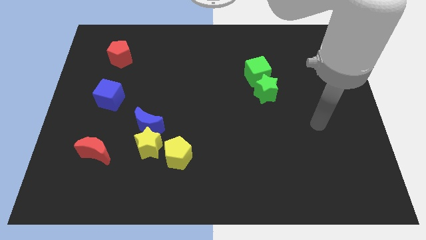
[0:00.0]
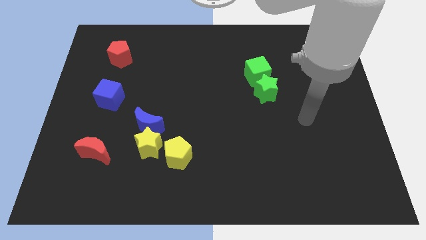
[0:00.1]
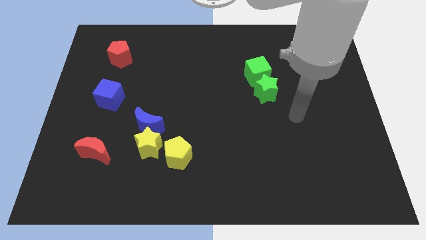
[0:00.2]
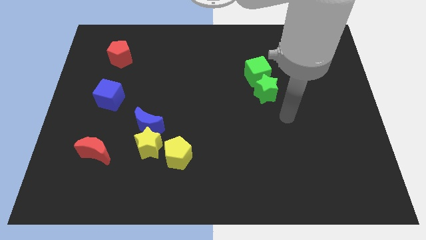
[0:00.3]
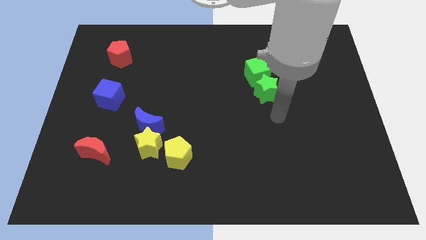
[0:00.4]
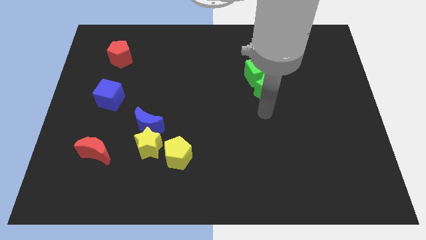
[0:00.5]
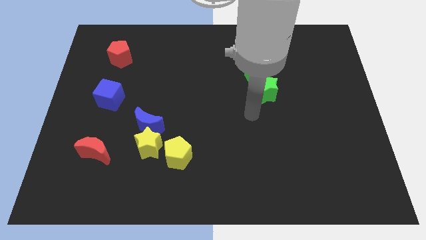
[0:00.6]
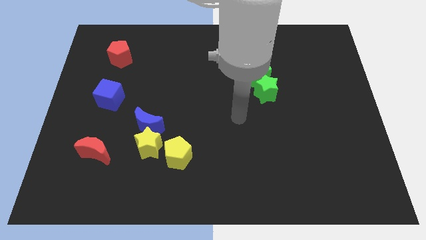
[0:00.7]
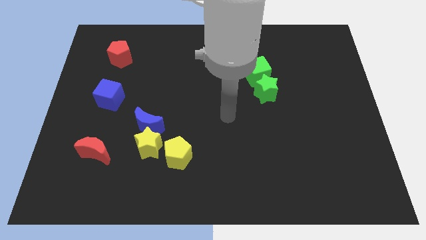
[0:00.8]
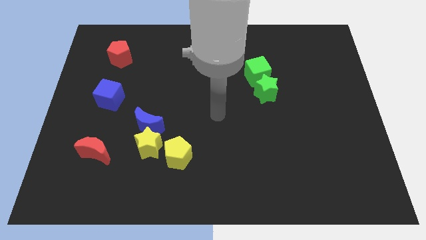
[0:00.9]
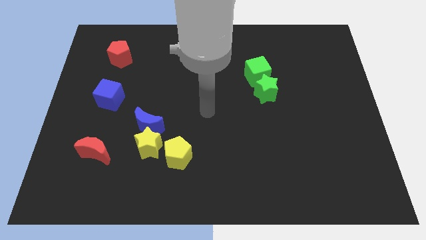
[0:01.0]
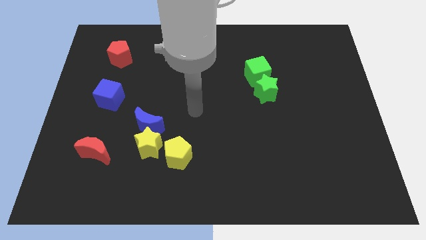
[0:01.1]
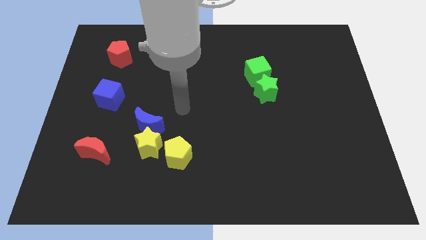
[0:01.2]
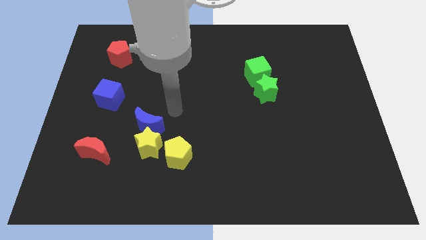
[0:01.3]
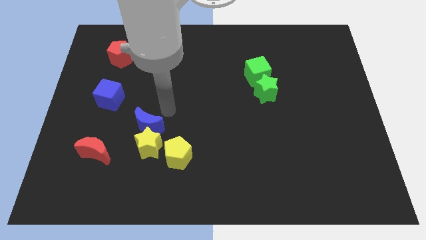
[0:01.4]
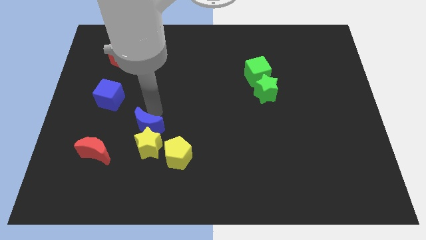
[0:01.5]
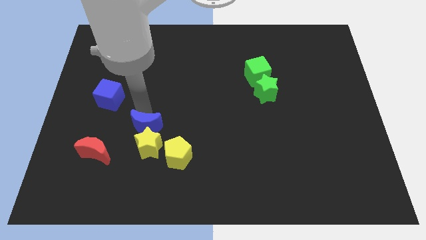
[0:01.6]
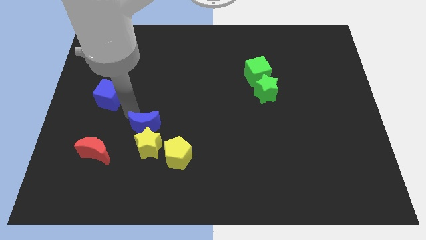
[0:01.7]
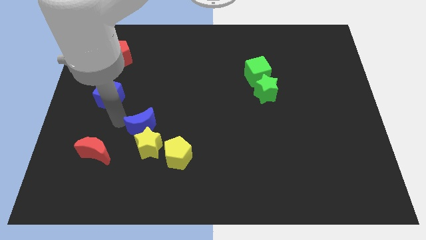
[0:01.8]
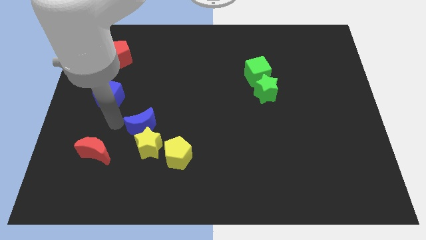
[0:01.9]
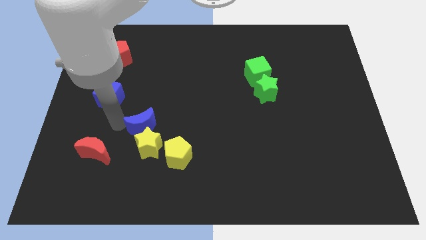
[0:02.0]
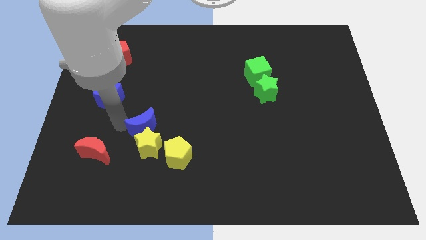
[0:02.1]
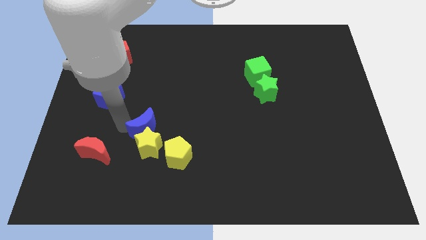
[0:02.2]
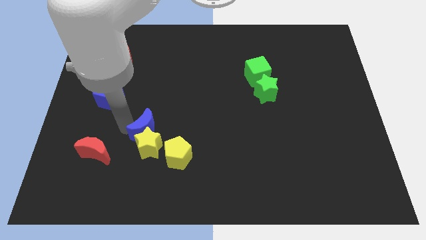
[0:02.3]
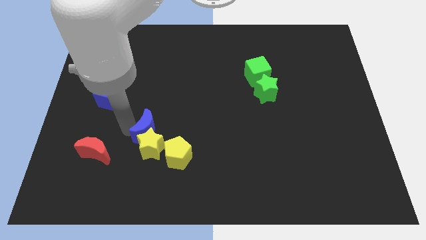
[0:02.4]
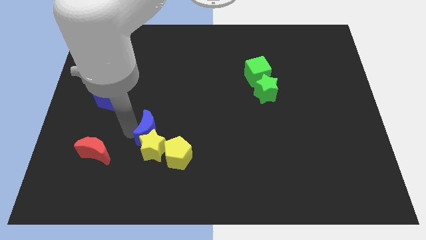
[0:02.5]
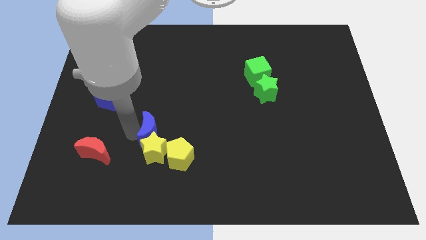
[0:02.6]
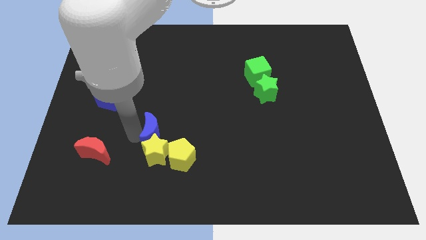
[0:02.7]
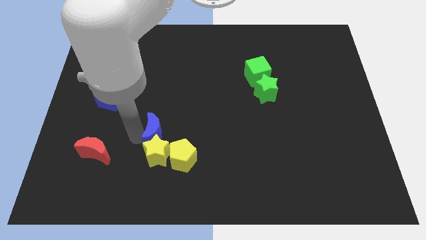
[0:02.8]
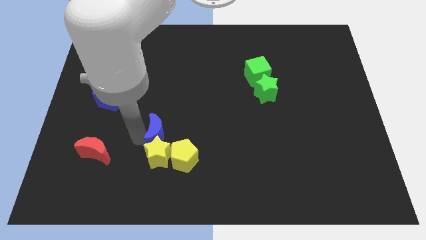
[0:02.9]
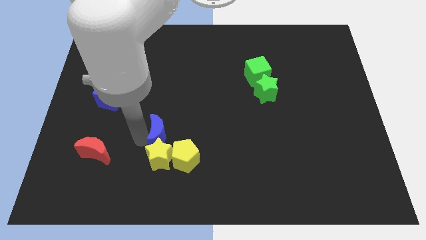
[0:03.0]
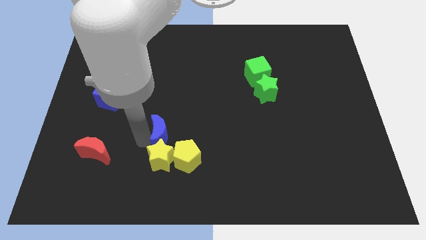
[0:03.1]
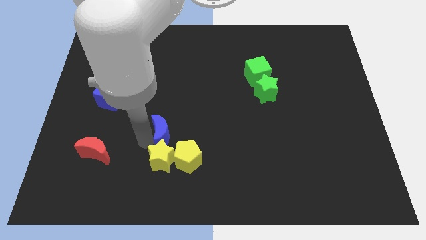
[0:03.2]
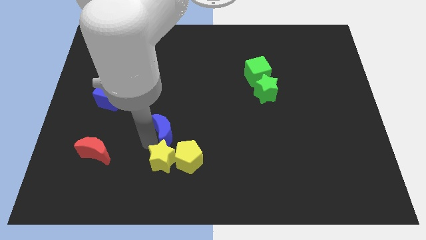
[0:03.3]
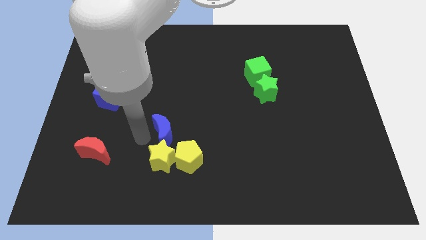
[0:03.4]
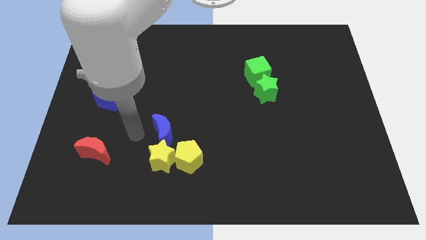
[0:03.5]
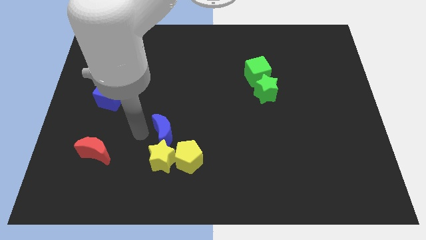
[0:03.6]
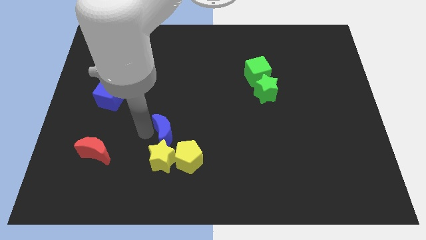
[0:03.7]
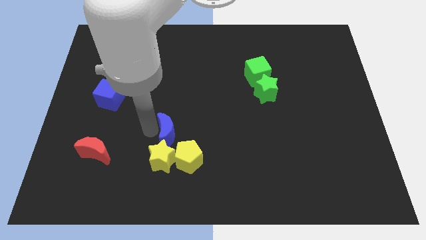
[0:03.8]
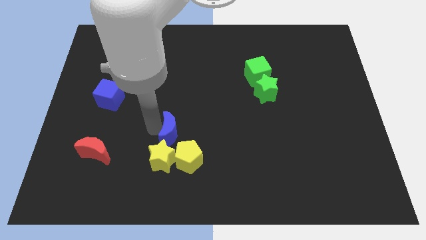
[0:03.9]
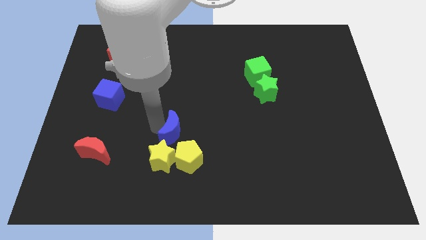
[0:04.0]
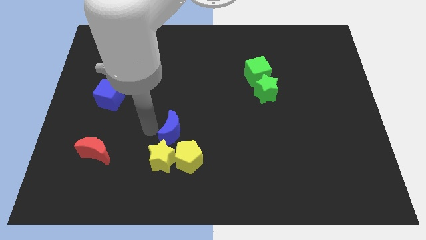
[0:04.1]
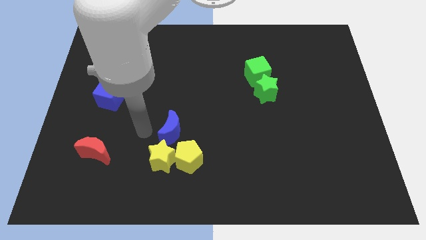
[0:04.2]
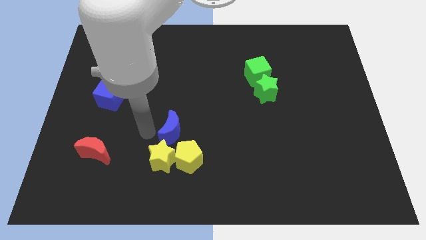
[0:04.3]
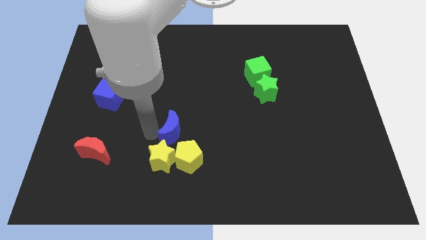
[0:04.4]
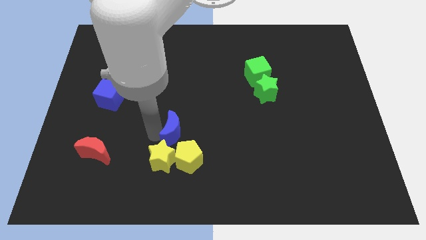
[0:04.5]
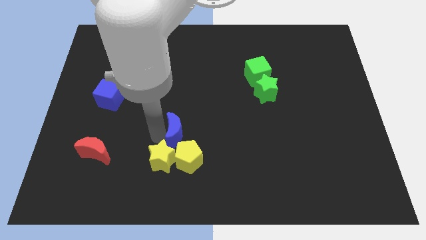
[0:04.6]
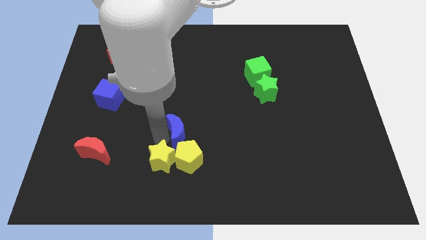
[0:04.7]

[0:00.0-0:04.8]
push the blue moon a little to the right

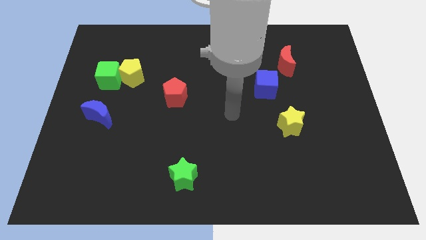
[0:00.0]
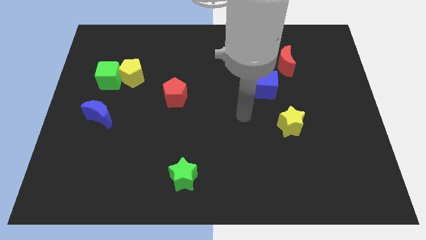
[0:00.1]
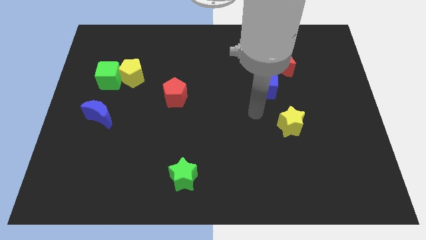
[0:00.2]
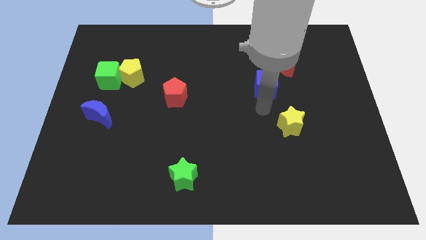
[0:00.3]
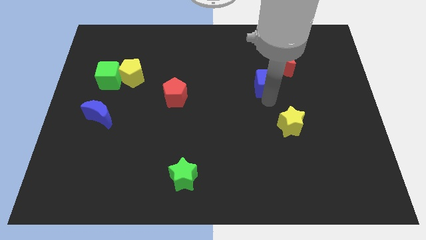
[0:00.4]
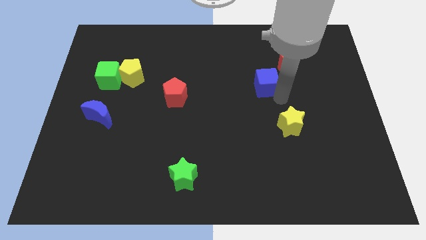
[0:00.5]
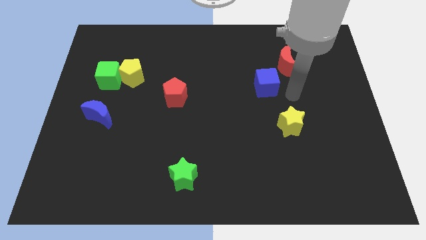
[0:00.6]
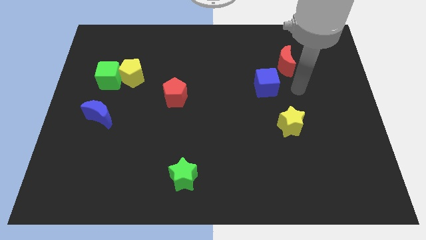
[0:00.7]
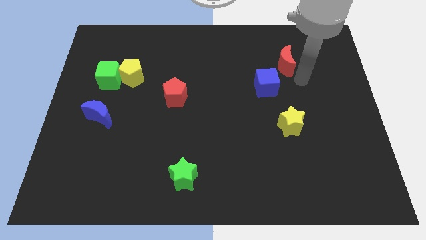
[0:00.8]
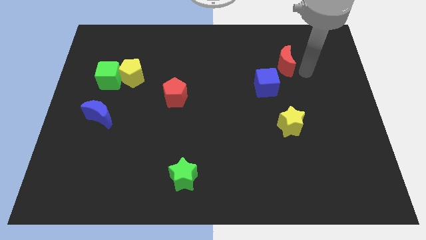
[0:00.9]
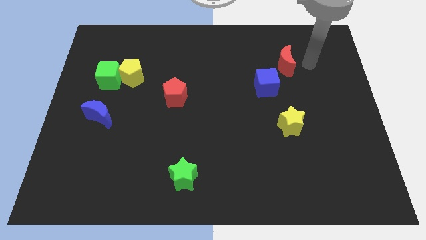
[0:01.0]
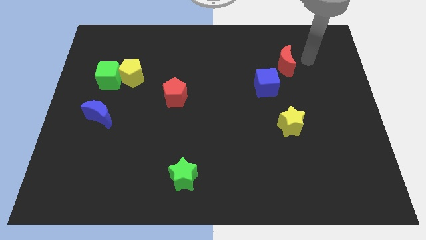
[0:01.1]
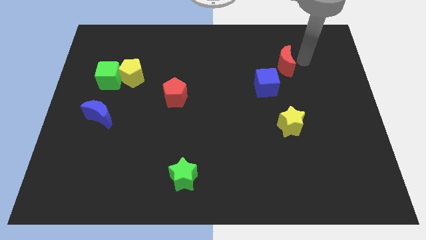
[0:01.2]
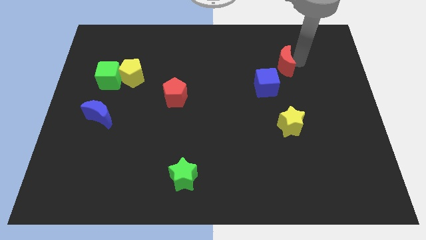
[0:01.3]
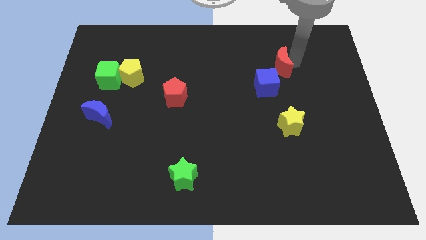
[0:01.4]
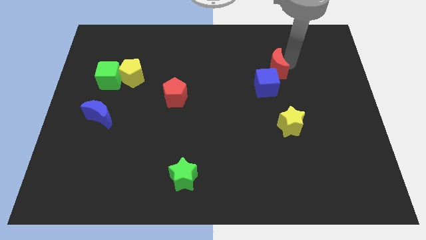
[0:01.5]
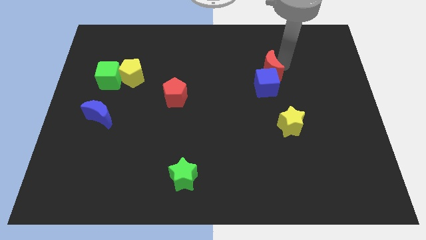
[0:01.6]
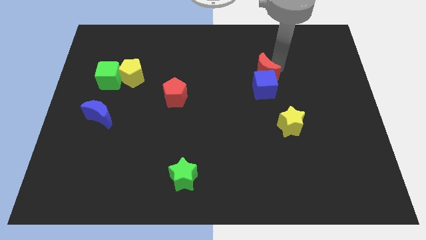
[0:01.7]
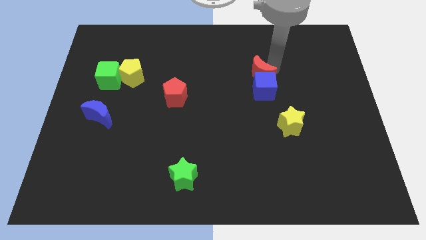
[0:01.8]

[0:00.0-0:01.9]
slightly push the red moon down and then left

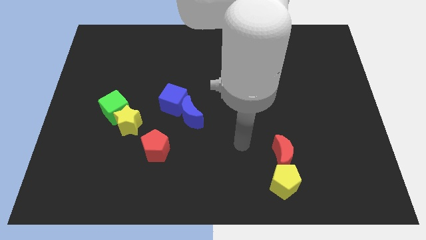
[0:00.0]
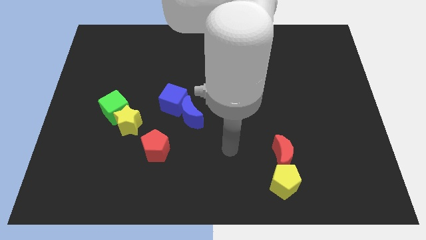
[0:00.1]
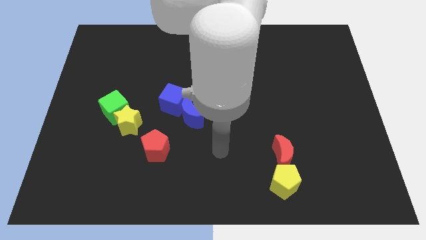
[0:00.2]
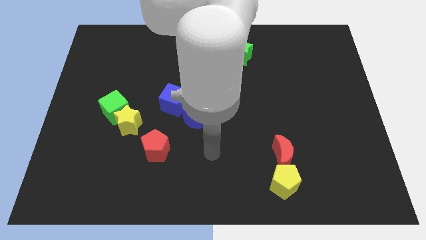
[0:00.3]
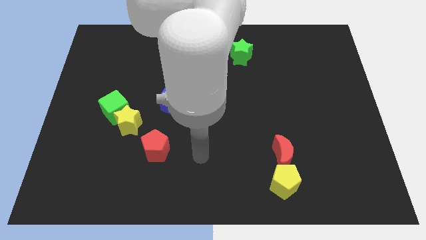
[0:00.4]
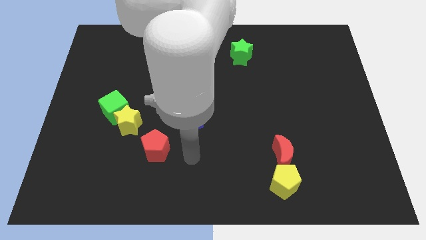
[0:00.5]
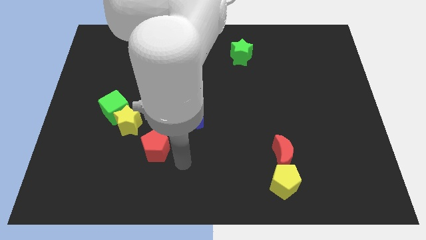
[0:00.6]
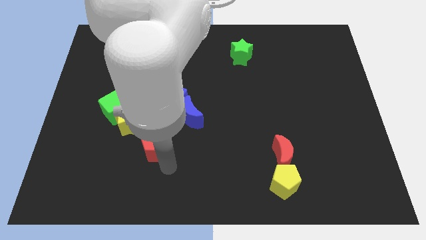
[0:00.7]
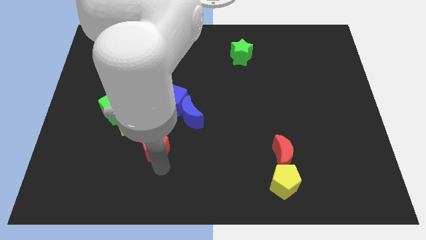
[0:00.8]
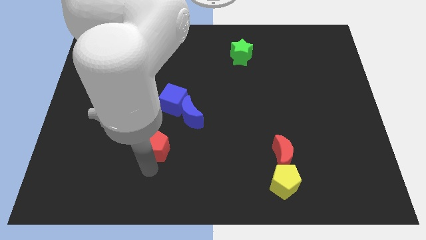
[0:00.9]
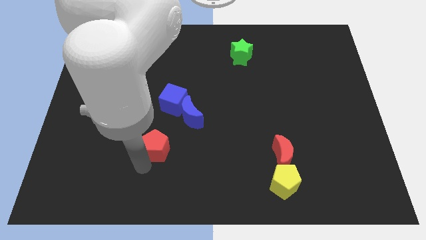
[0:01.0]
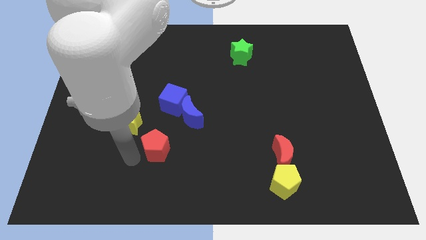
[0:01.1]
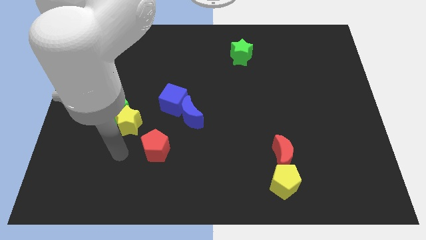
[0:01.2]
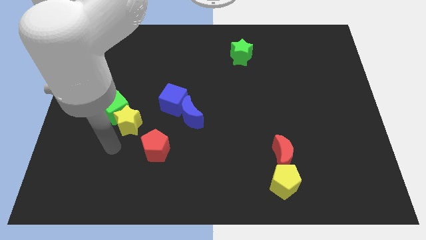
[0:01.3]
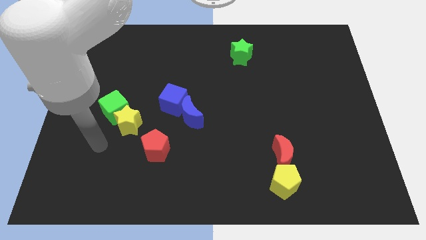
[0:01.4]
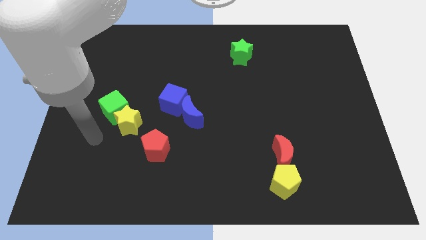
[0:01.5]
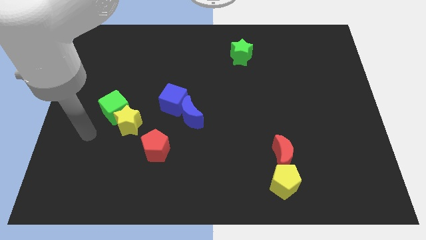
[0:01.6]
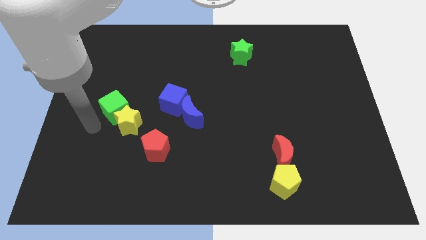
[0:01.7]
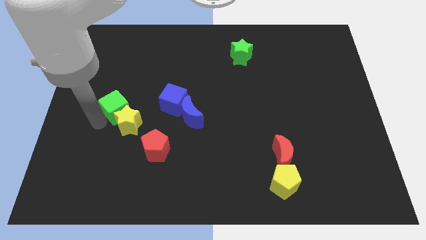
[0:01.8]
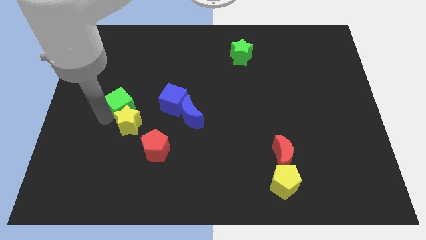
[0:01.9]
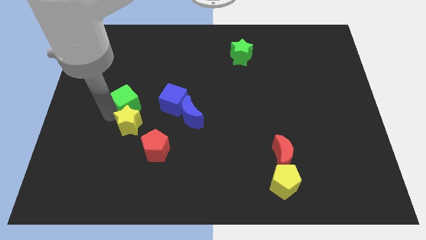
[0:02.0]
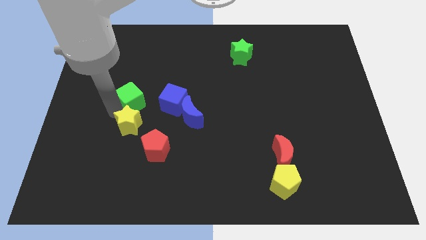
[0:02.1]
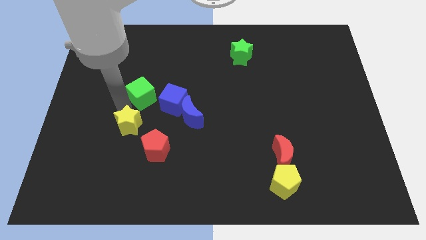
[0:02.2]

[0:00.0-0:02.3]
move the green cube diagonally upwards and right a little bit
